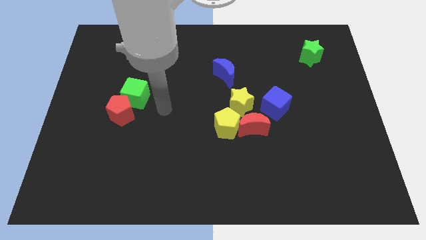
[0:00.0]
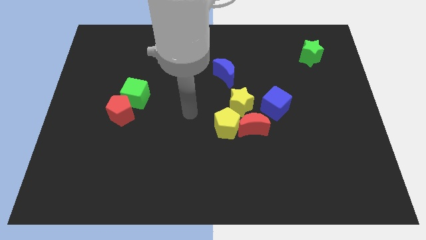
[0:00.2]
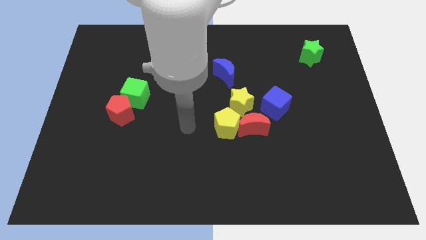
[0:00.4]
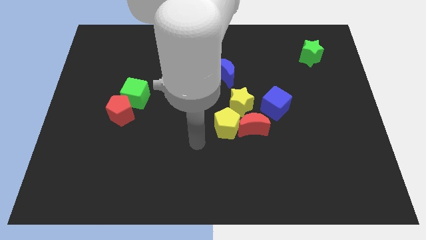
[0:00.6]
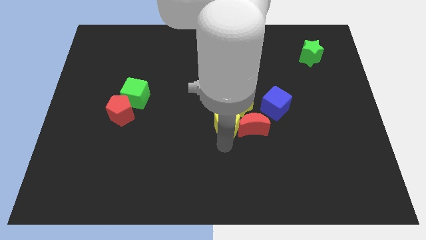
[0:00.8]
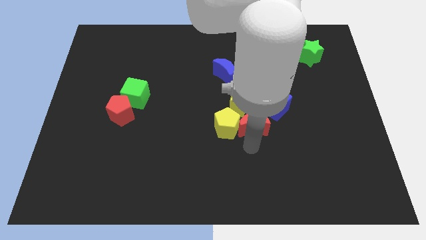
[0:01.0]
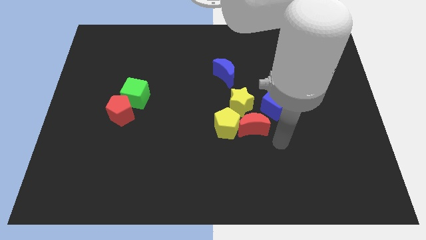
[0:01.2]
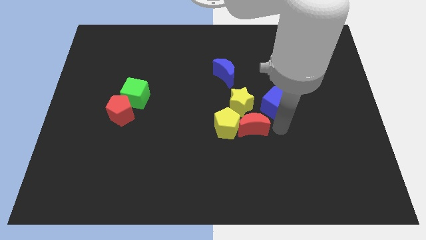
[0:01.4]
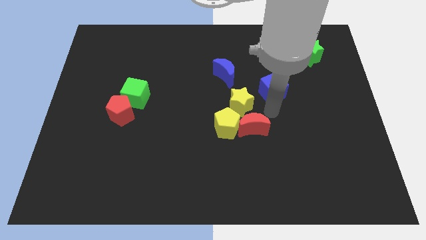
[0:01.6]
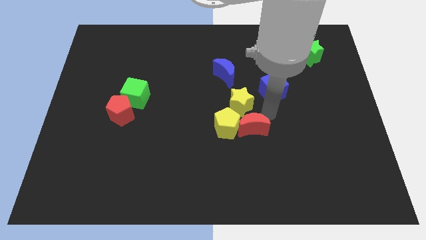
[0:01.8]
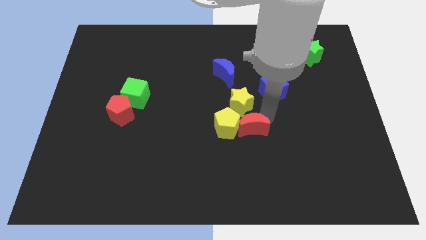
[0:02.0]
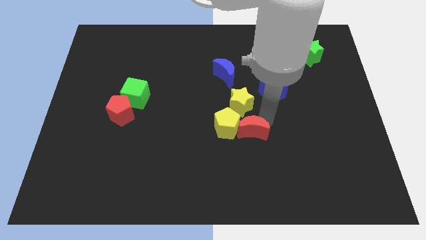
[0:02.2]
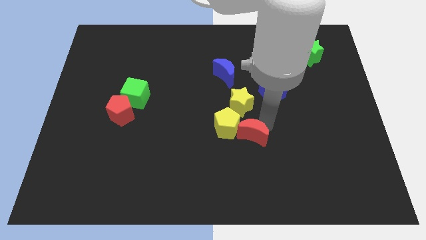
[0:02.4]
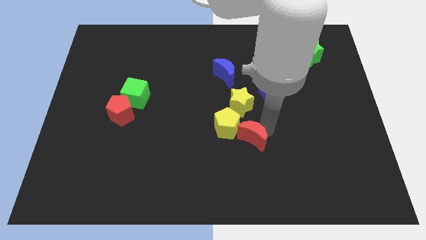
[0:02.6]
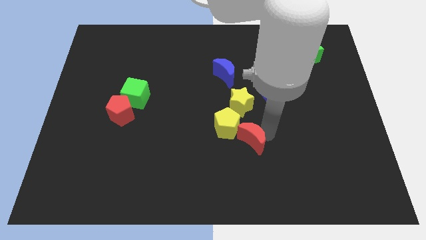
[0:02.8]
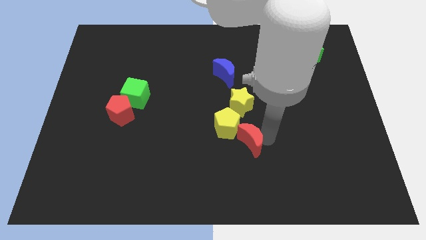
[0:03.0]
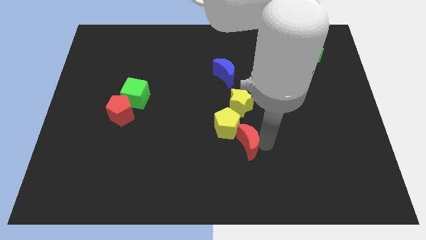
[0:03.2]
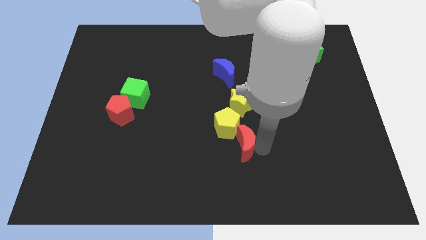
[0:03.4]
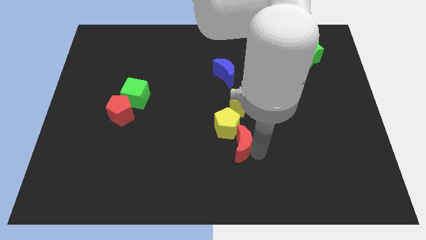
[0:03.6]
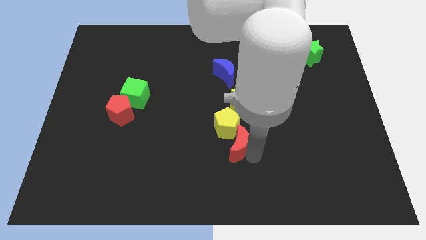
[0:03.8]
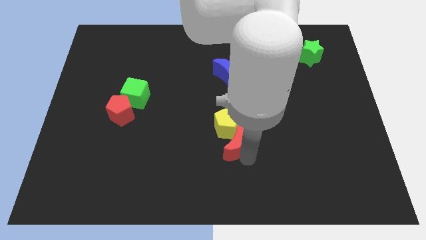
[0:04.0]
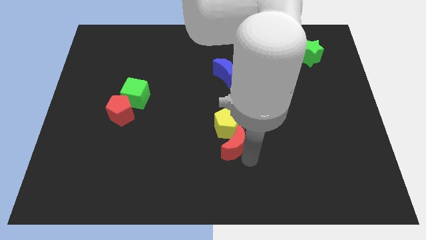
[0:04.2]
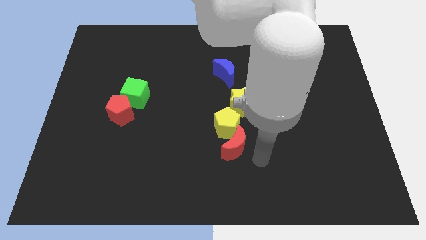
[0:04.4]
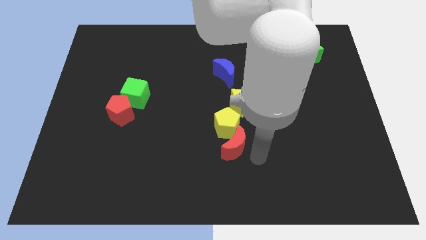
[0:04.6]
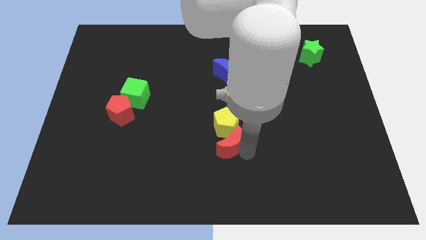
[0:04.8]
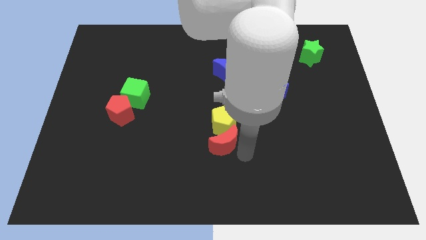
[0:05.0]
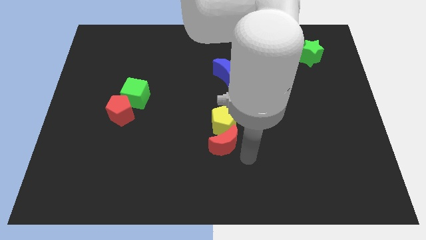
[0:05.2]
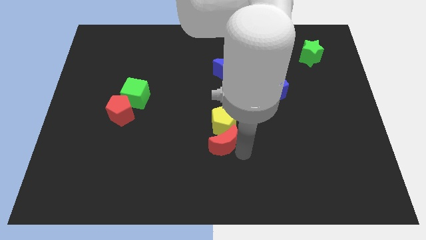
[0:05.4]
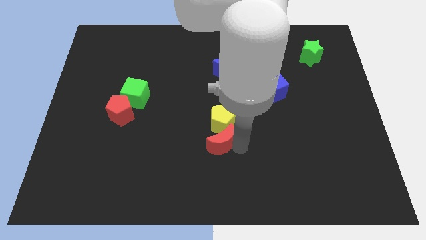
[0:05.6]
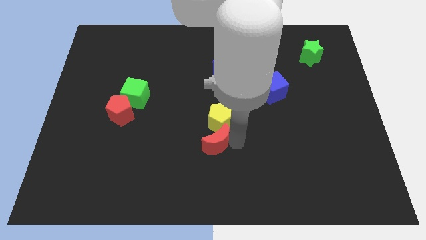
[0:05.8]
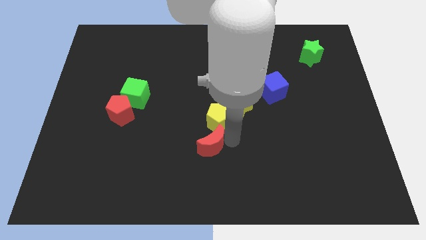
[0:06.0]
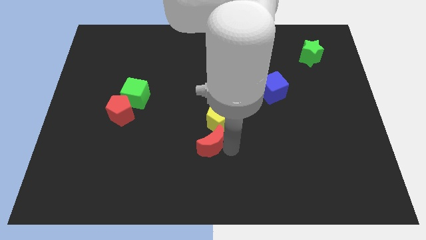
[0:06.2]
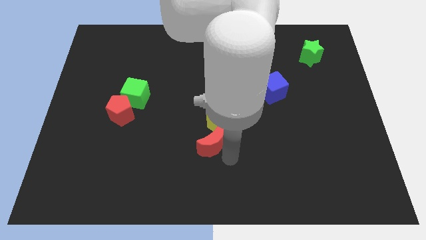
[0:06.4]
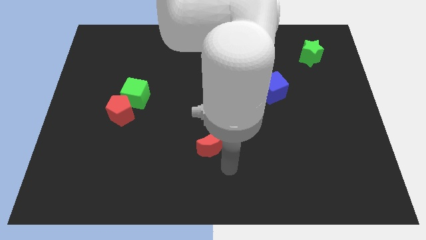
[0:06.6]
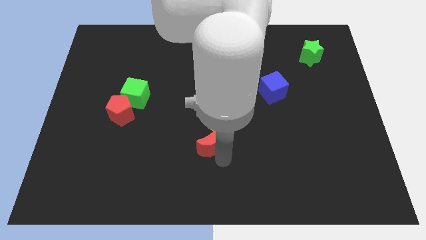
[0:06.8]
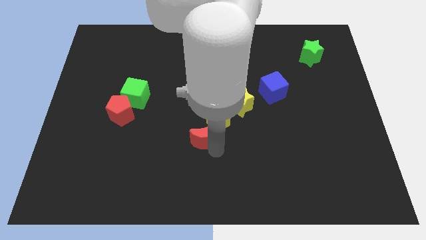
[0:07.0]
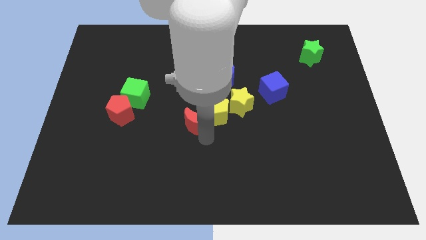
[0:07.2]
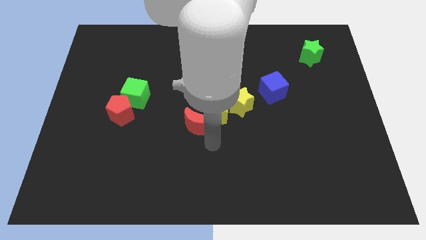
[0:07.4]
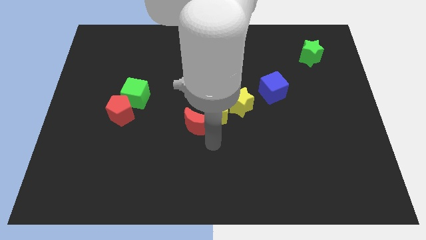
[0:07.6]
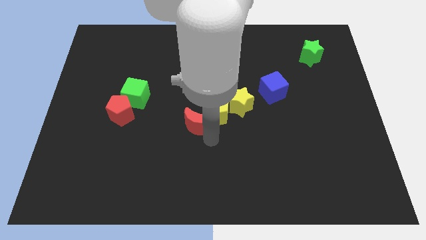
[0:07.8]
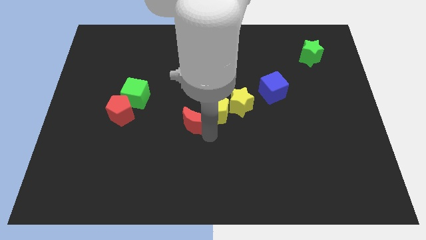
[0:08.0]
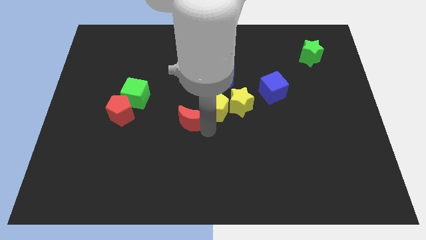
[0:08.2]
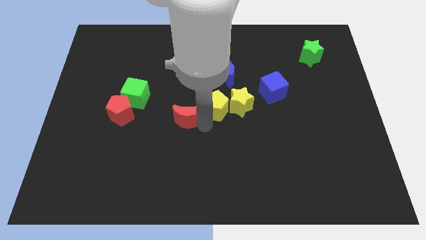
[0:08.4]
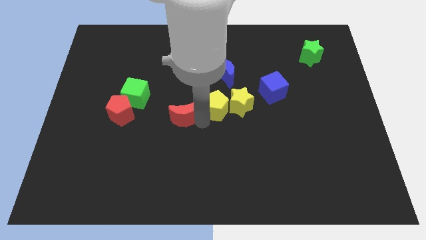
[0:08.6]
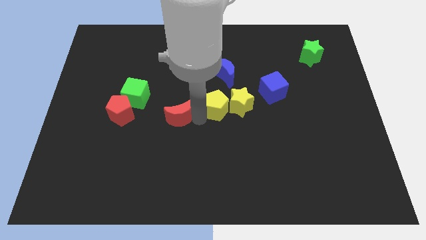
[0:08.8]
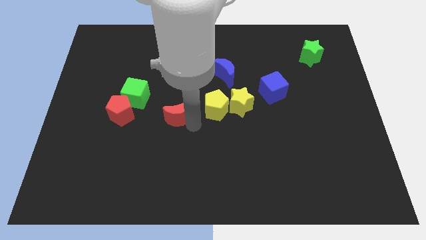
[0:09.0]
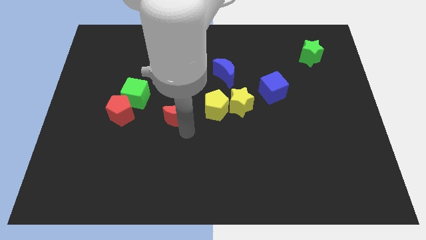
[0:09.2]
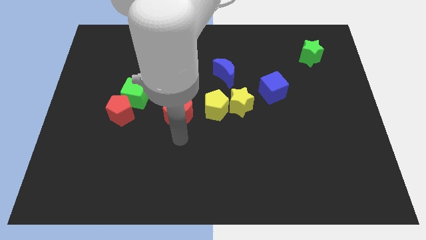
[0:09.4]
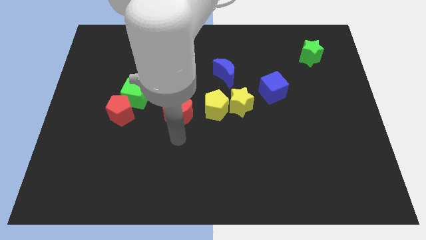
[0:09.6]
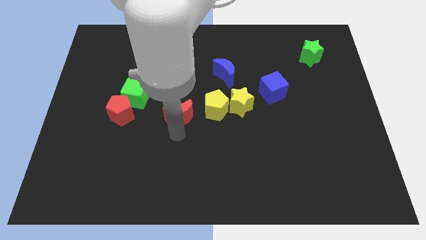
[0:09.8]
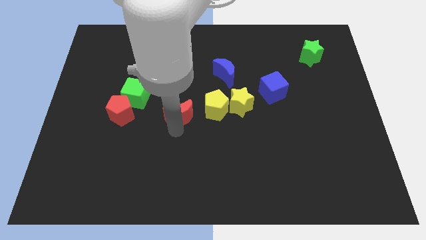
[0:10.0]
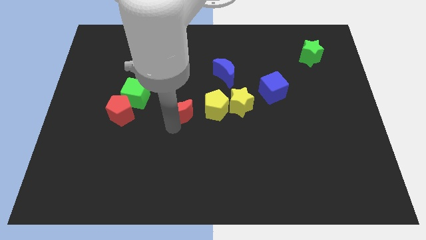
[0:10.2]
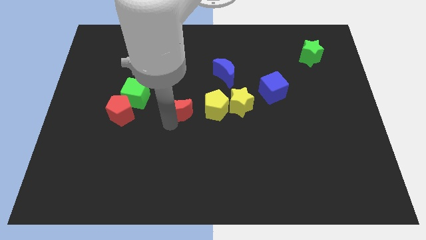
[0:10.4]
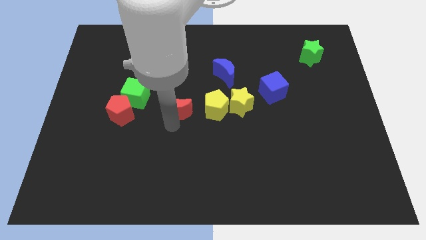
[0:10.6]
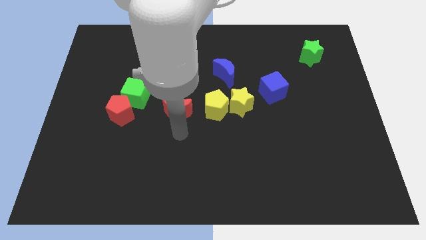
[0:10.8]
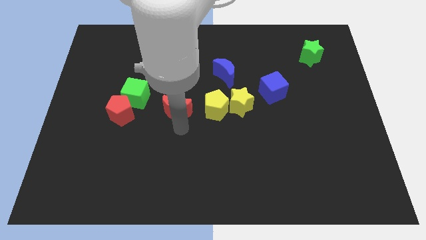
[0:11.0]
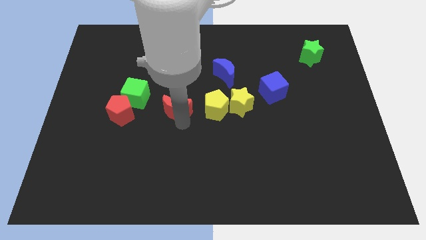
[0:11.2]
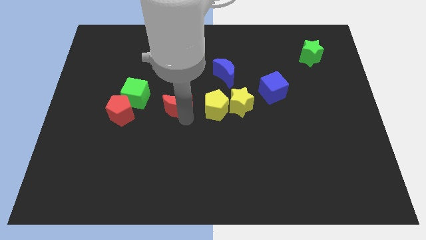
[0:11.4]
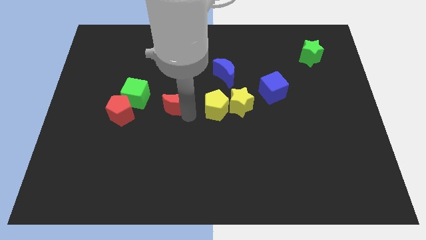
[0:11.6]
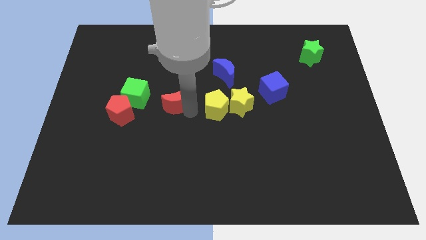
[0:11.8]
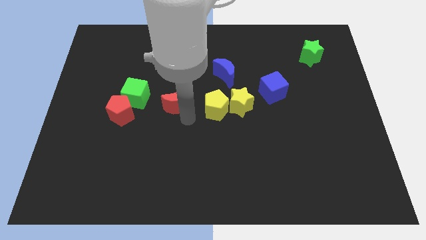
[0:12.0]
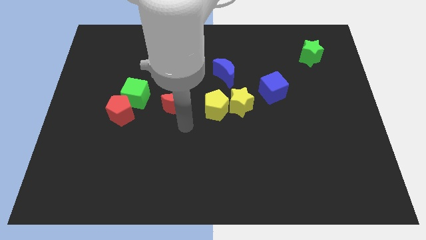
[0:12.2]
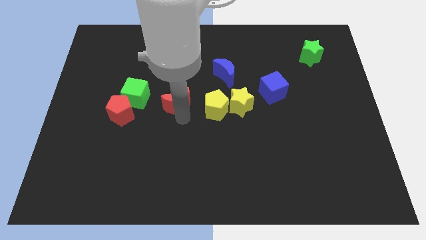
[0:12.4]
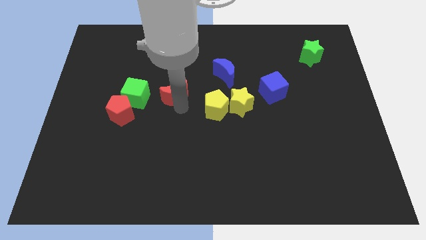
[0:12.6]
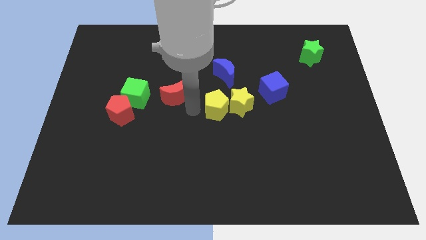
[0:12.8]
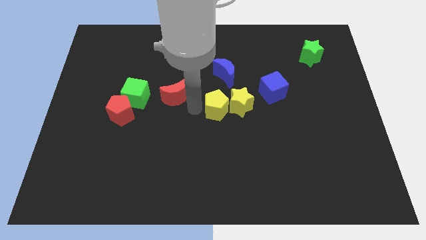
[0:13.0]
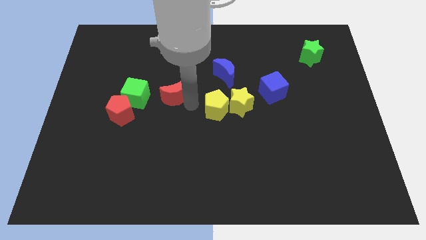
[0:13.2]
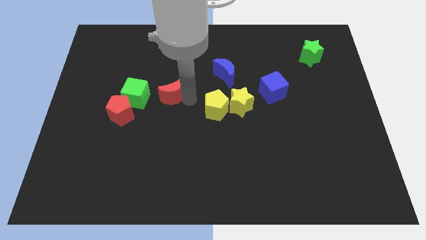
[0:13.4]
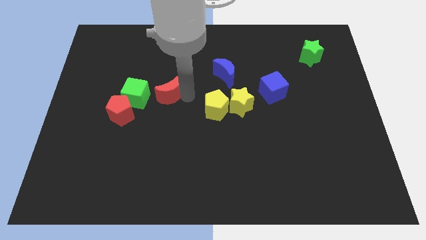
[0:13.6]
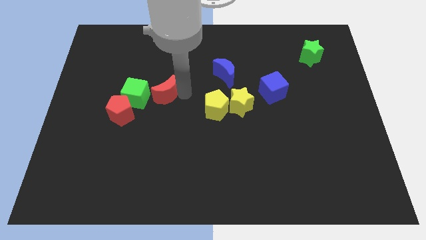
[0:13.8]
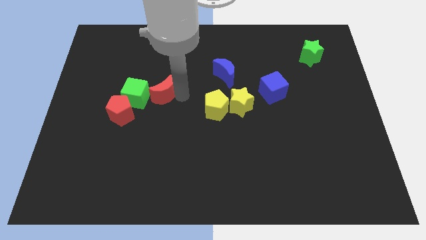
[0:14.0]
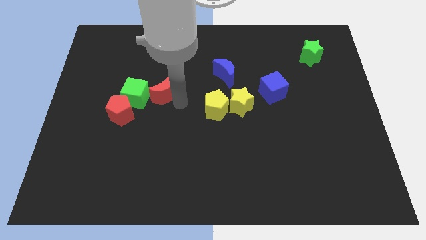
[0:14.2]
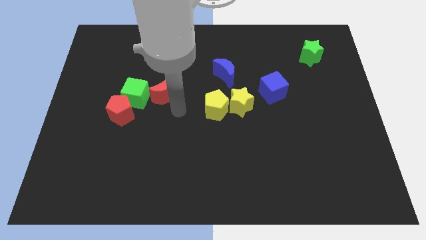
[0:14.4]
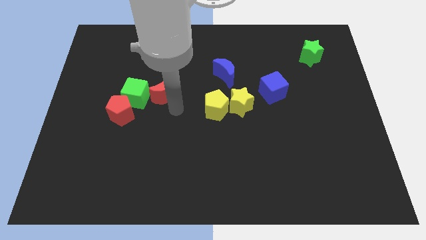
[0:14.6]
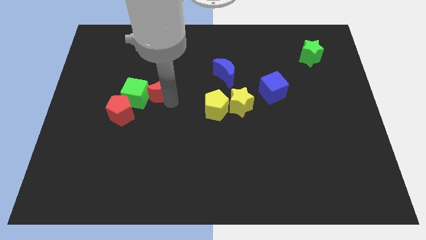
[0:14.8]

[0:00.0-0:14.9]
move the red moon upwards and left

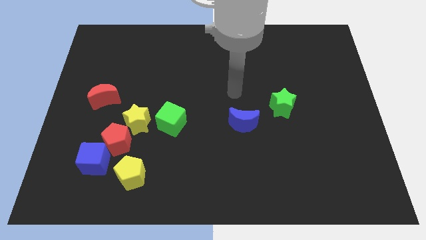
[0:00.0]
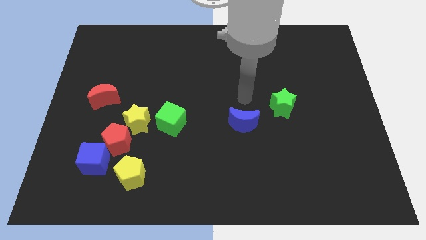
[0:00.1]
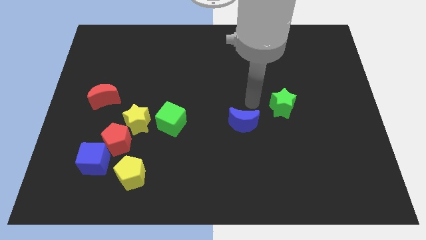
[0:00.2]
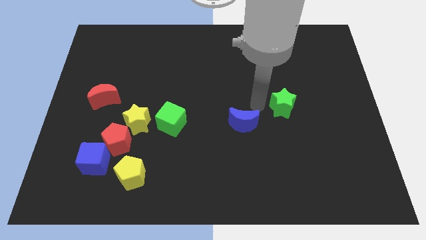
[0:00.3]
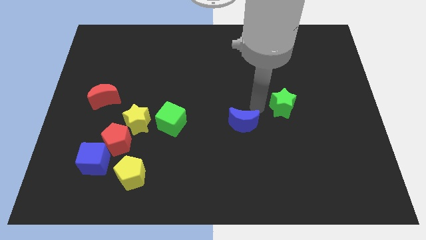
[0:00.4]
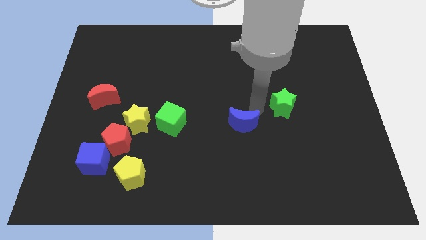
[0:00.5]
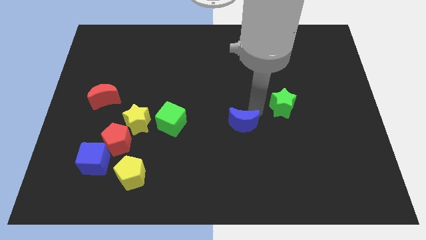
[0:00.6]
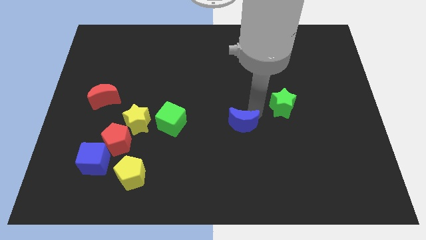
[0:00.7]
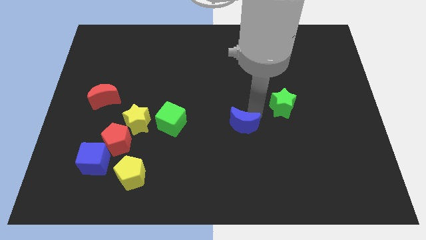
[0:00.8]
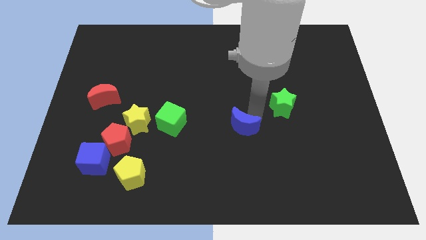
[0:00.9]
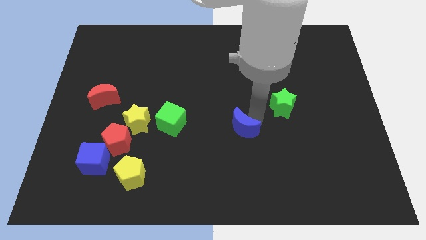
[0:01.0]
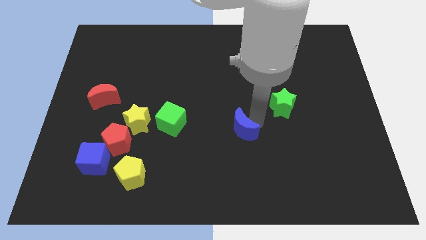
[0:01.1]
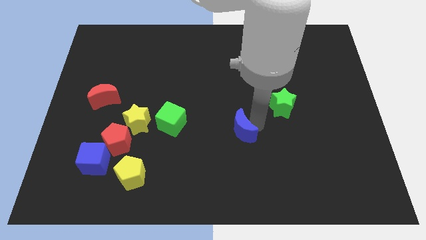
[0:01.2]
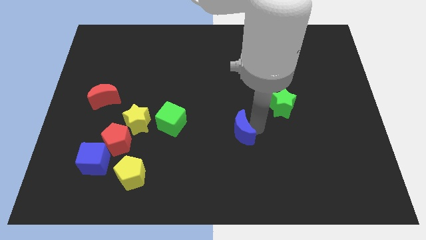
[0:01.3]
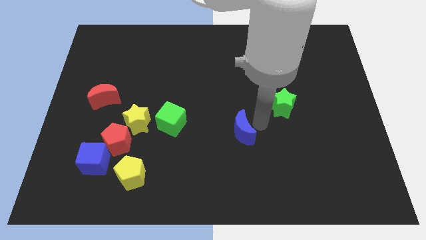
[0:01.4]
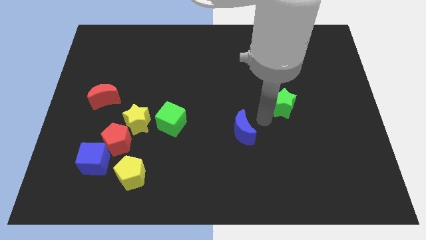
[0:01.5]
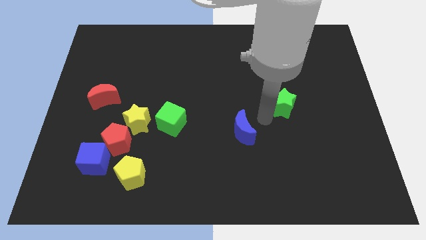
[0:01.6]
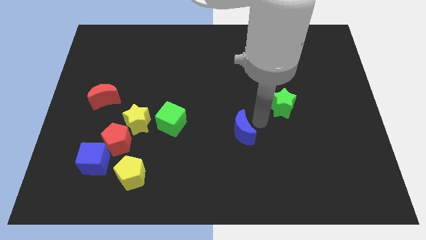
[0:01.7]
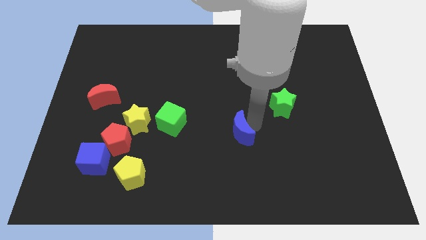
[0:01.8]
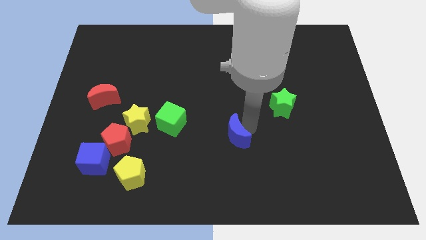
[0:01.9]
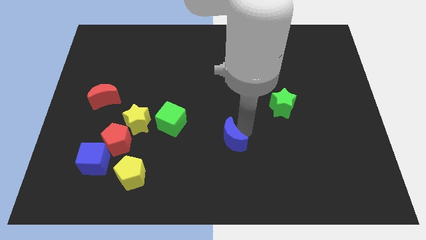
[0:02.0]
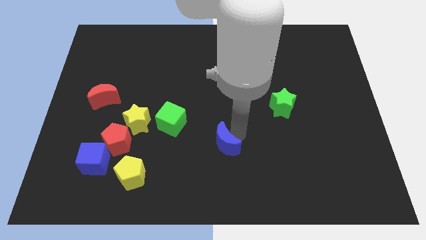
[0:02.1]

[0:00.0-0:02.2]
push the blue moon down and then left a little
